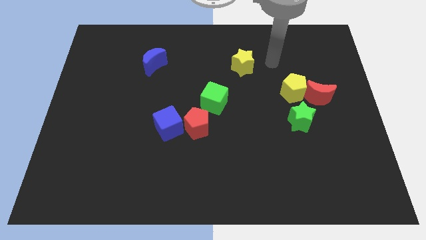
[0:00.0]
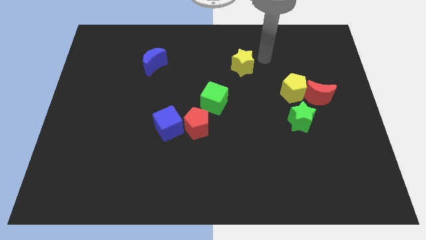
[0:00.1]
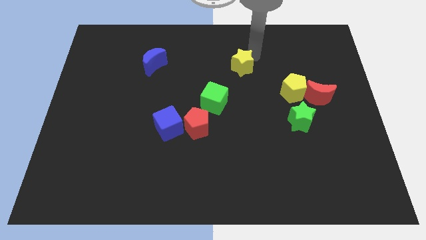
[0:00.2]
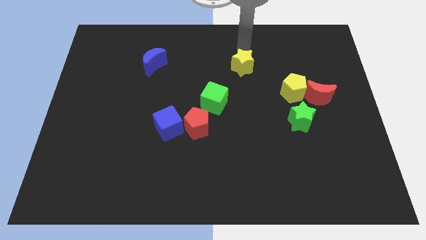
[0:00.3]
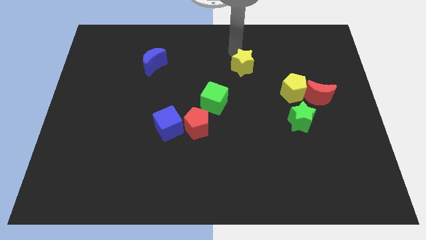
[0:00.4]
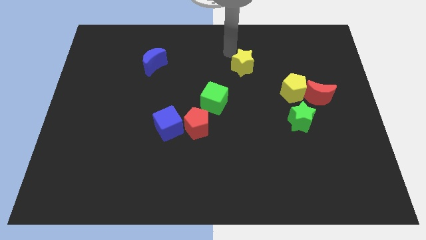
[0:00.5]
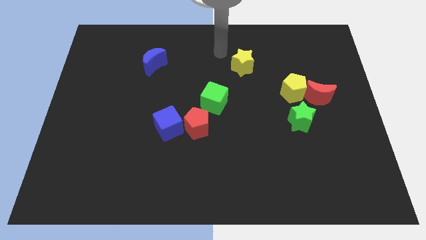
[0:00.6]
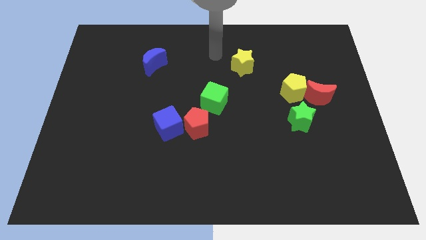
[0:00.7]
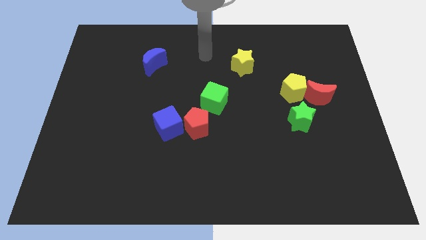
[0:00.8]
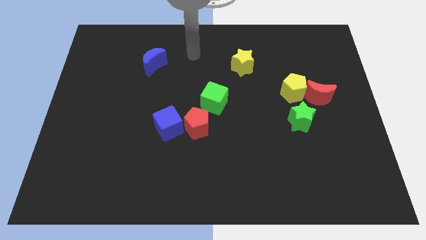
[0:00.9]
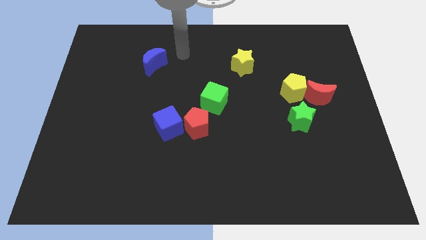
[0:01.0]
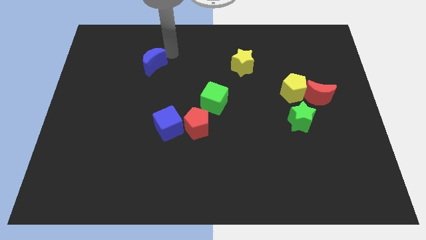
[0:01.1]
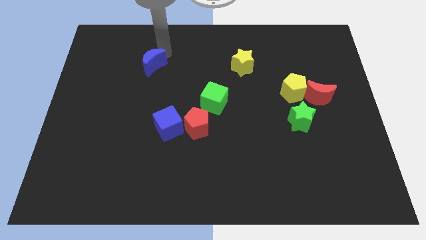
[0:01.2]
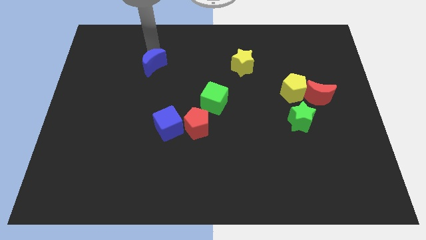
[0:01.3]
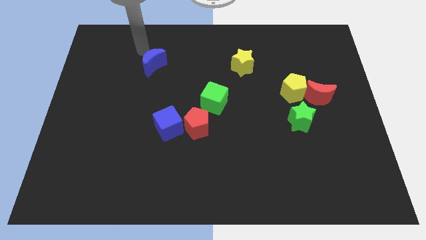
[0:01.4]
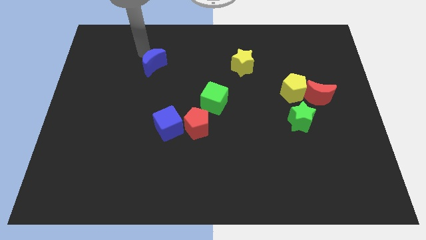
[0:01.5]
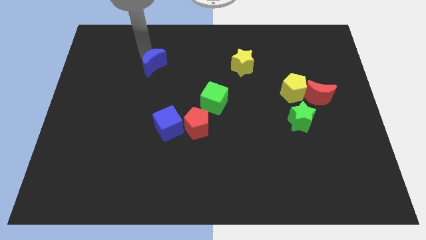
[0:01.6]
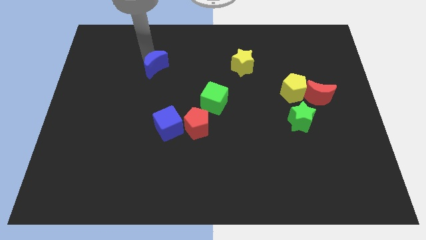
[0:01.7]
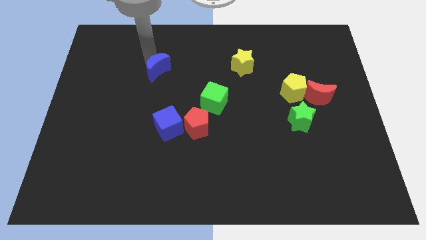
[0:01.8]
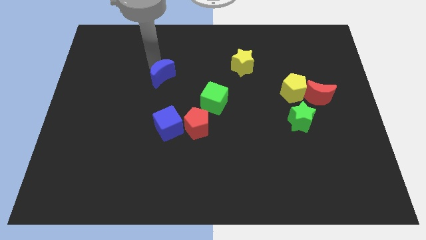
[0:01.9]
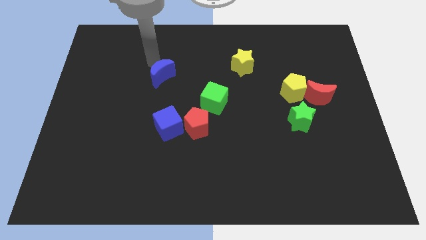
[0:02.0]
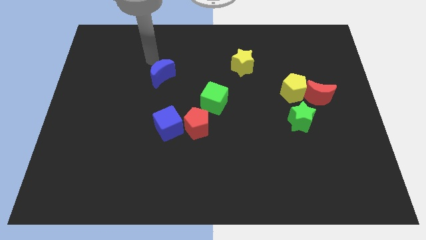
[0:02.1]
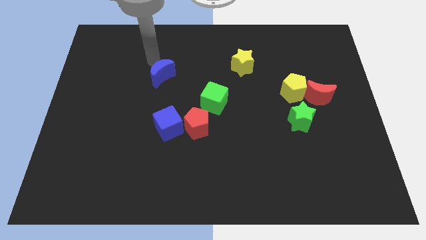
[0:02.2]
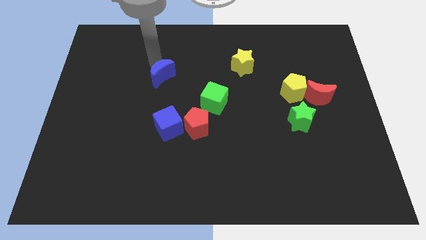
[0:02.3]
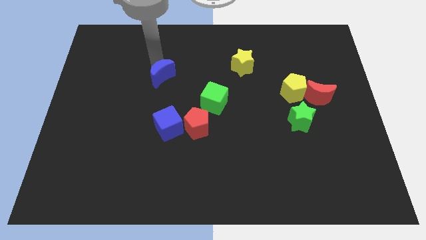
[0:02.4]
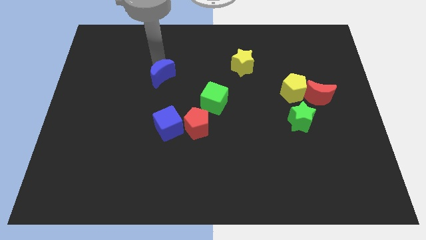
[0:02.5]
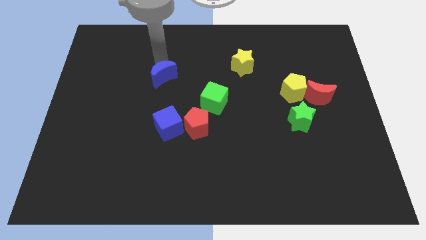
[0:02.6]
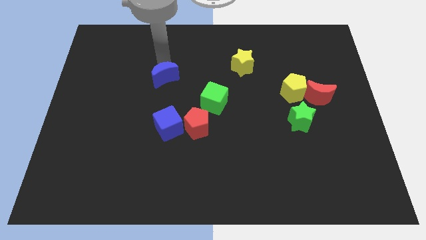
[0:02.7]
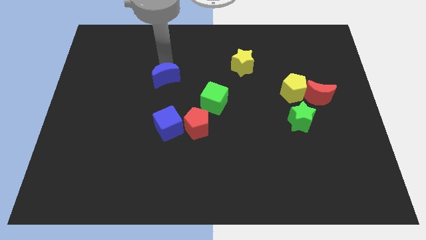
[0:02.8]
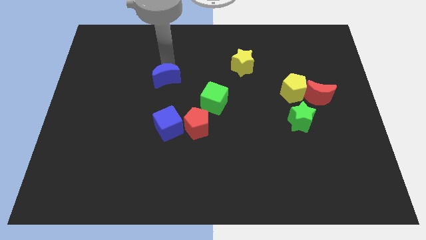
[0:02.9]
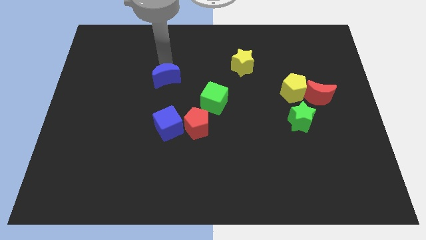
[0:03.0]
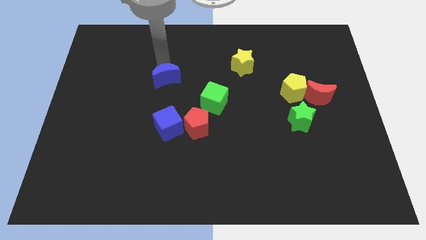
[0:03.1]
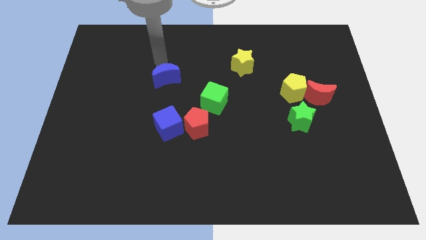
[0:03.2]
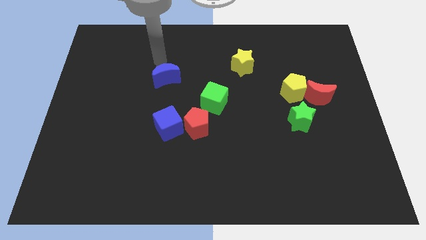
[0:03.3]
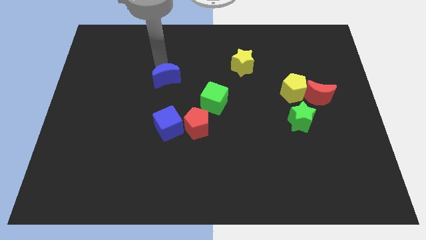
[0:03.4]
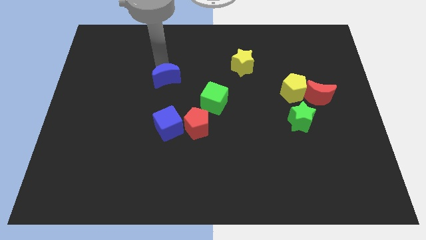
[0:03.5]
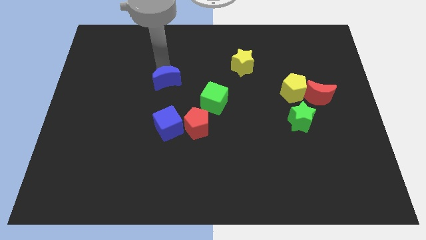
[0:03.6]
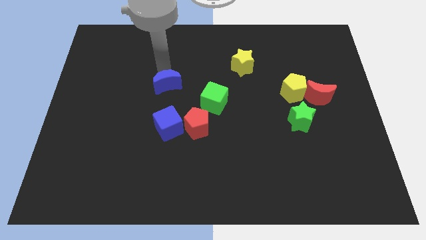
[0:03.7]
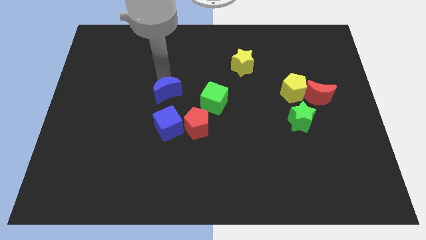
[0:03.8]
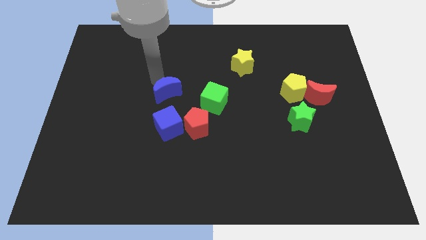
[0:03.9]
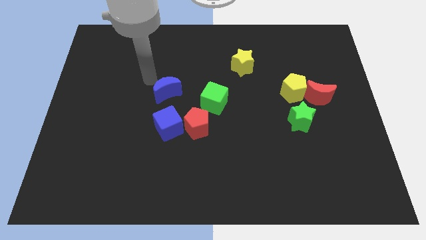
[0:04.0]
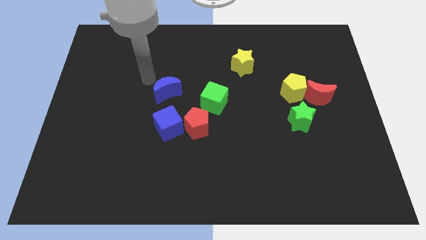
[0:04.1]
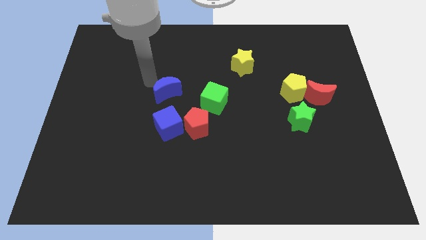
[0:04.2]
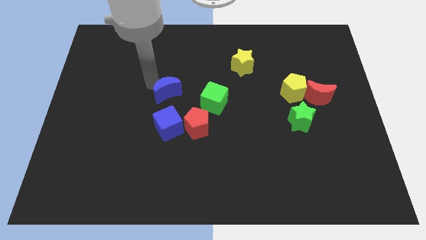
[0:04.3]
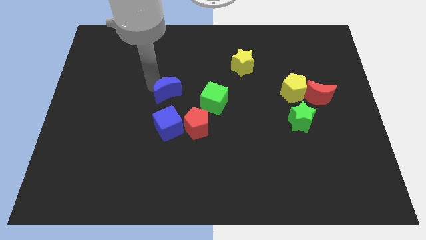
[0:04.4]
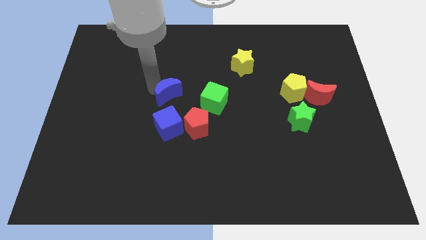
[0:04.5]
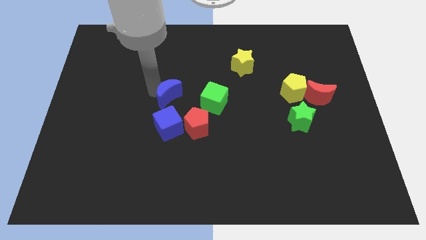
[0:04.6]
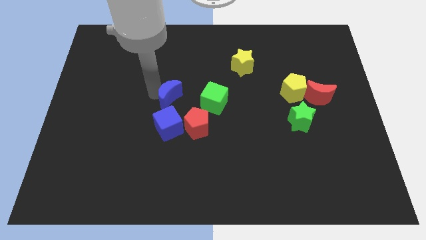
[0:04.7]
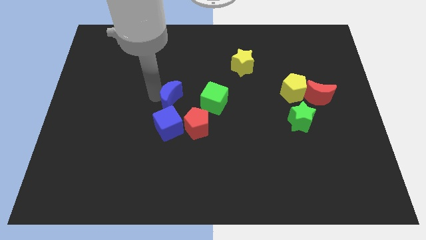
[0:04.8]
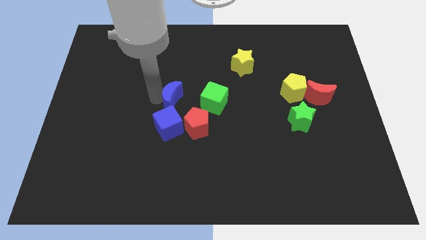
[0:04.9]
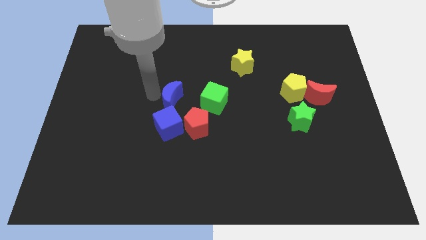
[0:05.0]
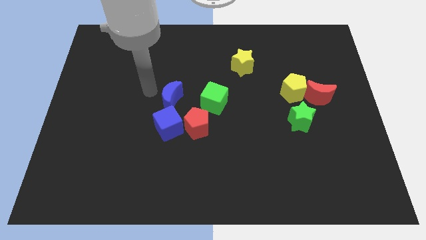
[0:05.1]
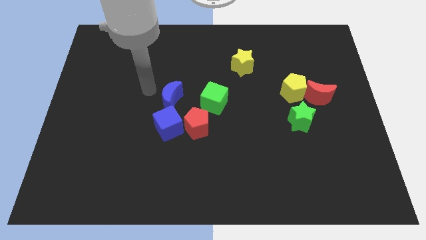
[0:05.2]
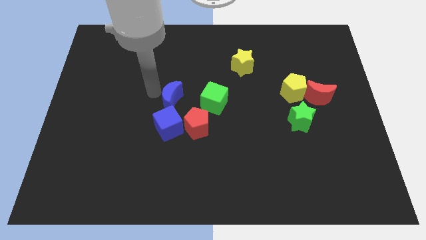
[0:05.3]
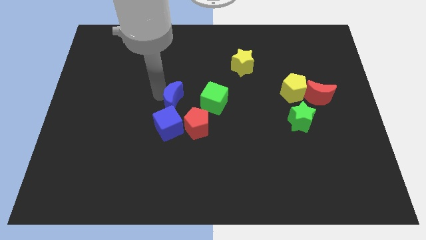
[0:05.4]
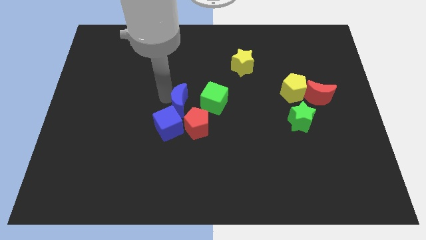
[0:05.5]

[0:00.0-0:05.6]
move the blue moon to the top right of the blue cube

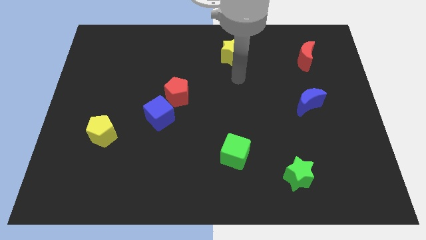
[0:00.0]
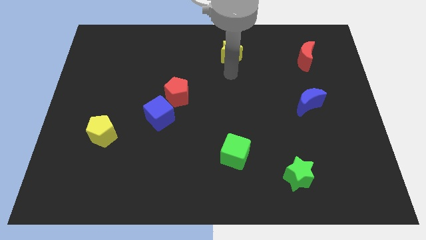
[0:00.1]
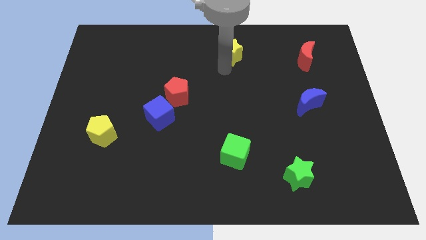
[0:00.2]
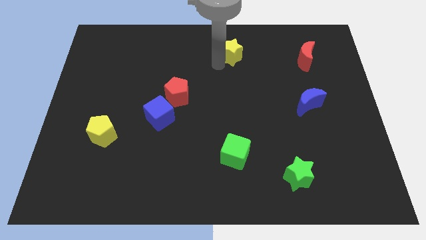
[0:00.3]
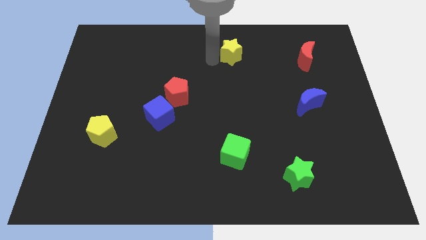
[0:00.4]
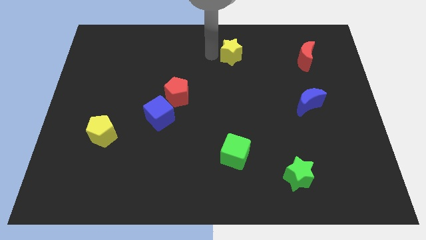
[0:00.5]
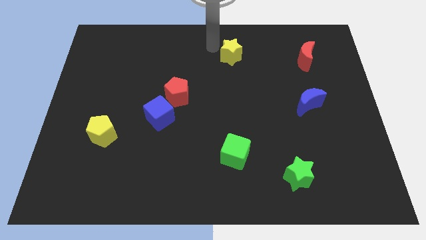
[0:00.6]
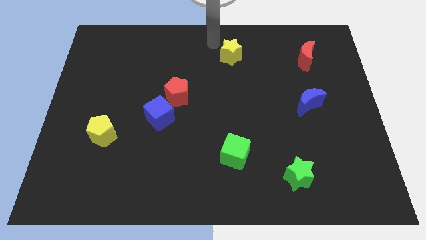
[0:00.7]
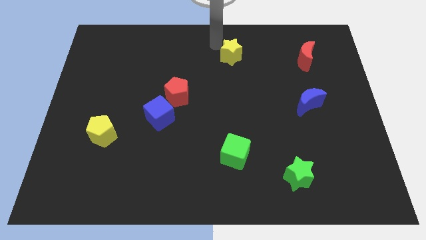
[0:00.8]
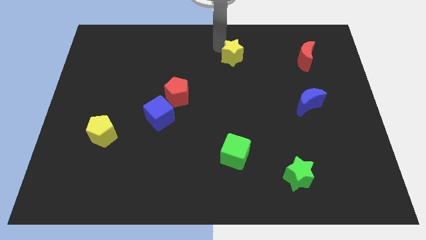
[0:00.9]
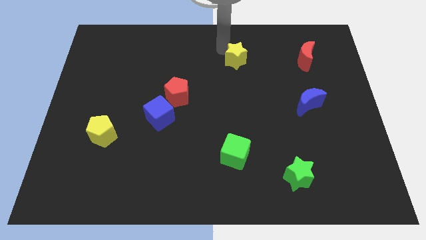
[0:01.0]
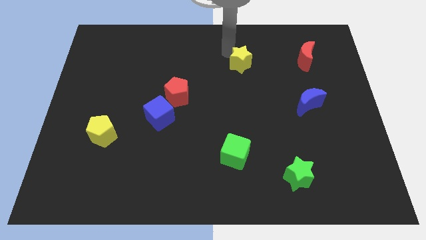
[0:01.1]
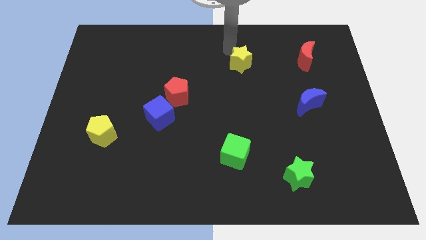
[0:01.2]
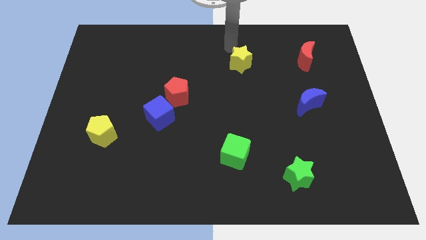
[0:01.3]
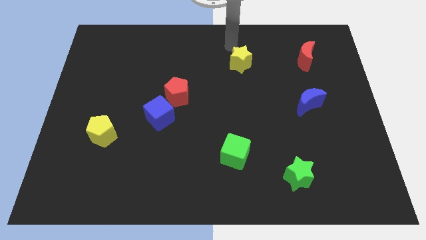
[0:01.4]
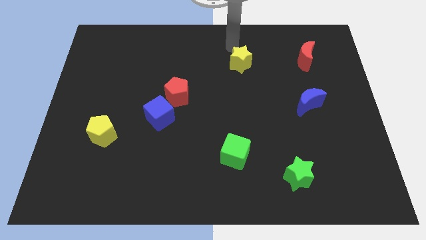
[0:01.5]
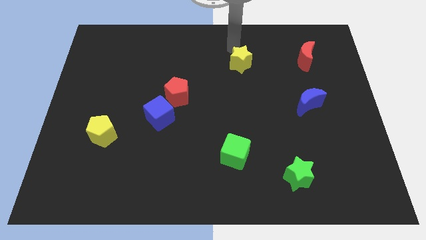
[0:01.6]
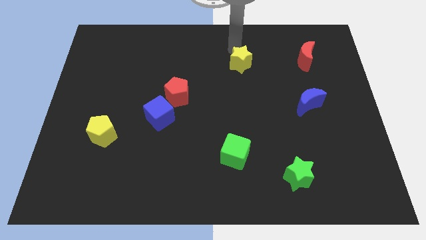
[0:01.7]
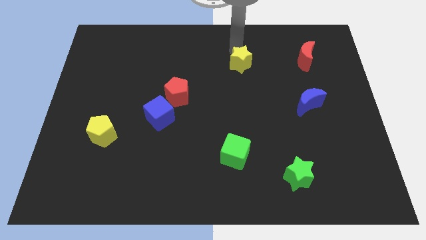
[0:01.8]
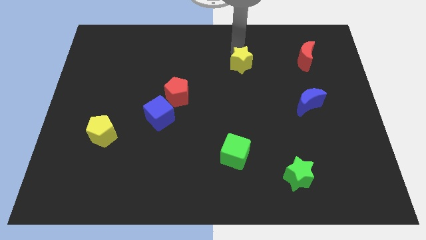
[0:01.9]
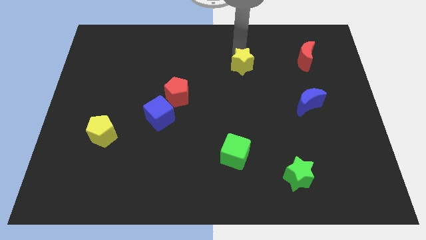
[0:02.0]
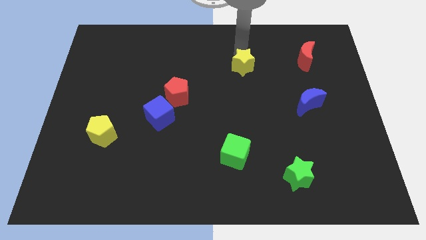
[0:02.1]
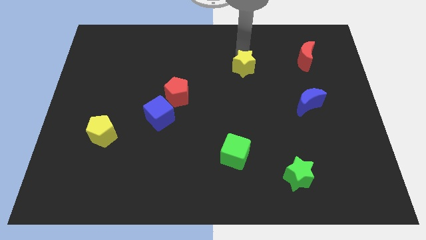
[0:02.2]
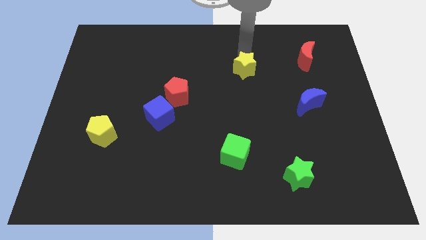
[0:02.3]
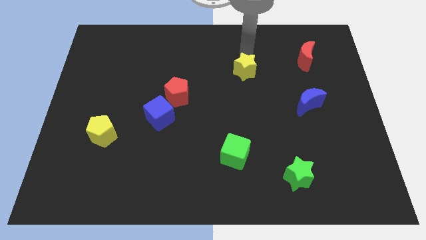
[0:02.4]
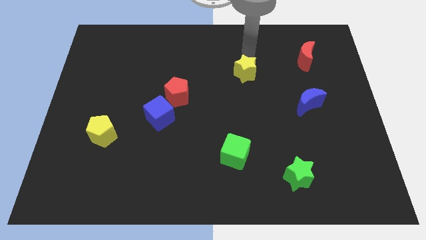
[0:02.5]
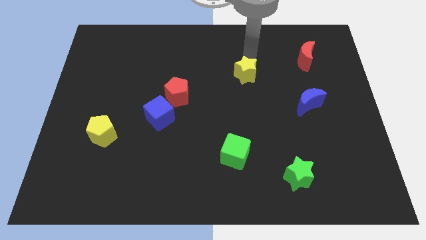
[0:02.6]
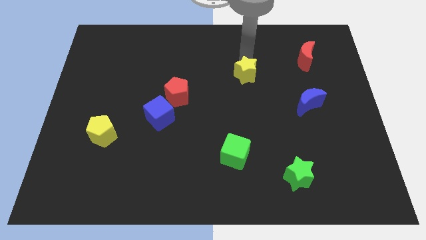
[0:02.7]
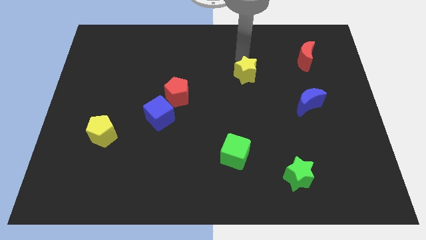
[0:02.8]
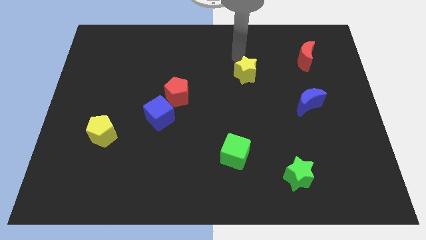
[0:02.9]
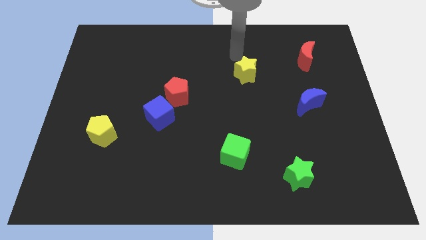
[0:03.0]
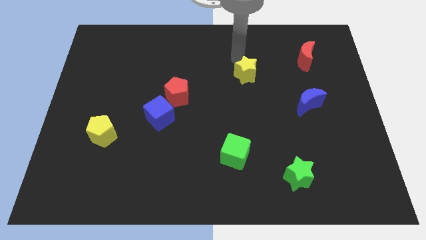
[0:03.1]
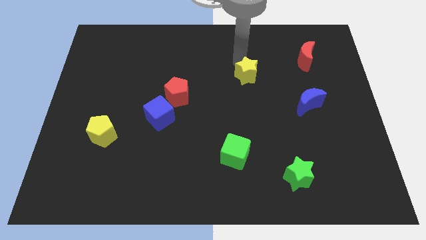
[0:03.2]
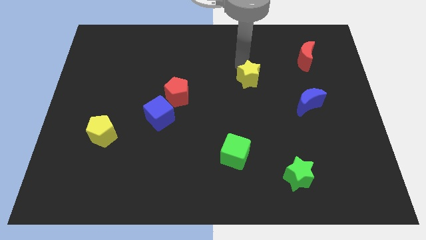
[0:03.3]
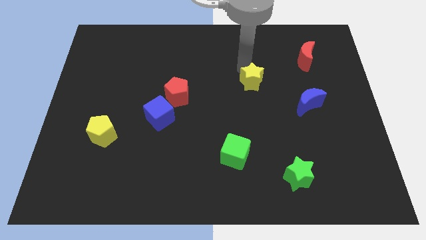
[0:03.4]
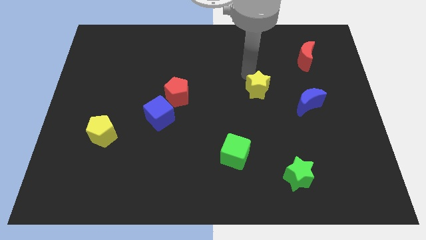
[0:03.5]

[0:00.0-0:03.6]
put the yellow star left of the blue moon
